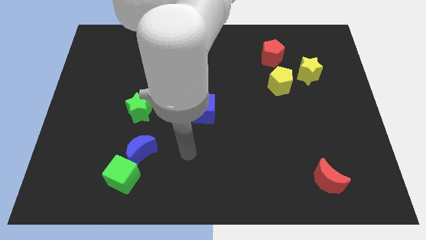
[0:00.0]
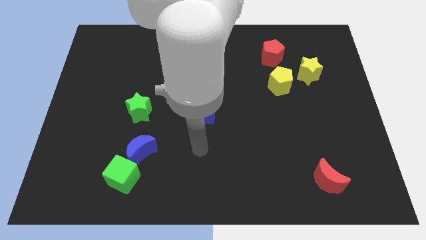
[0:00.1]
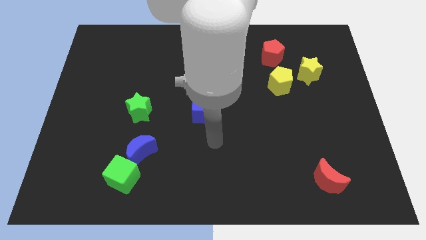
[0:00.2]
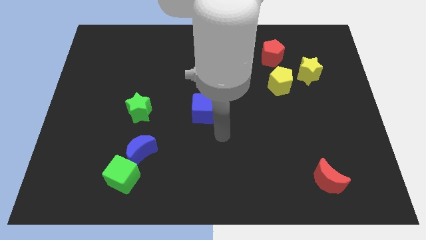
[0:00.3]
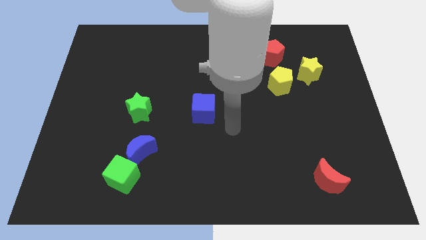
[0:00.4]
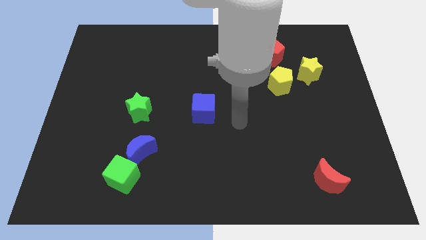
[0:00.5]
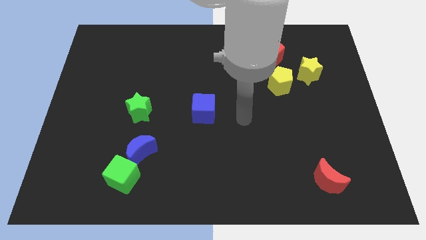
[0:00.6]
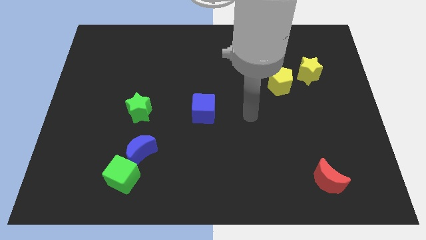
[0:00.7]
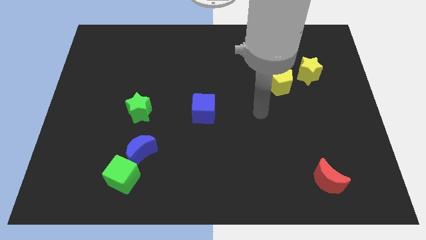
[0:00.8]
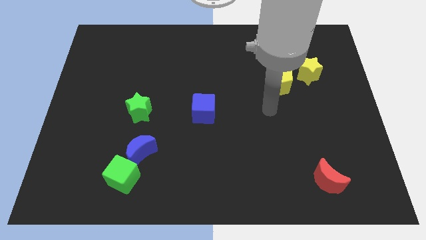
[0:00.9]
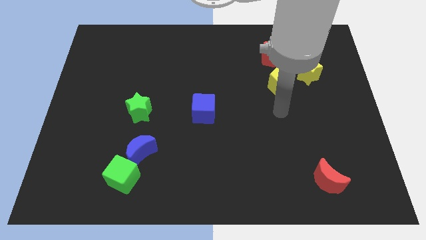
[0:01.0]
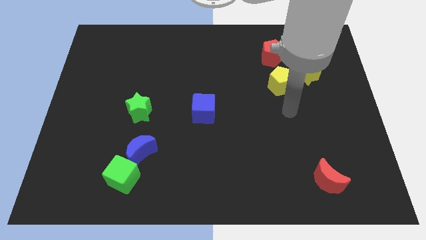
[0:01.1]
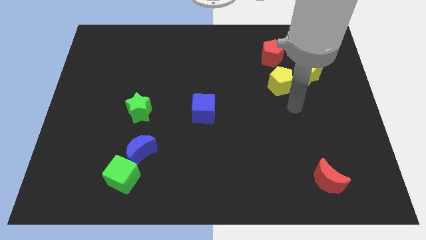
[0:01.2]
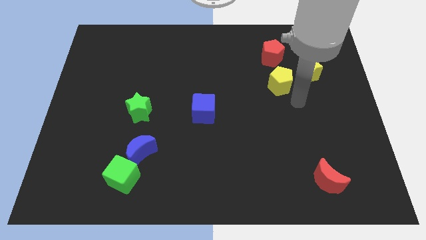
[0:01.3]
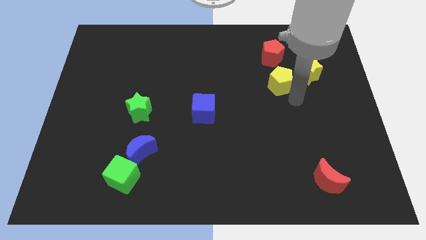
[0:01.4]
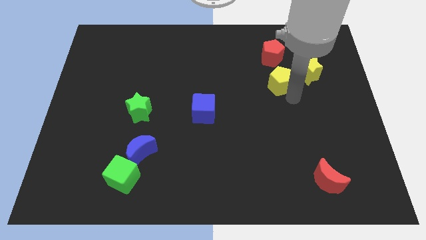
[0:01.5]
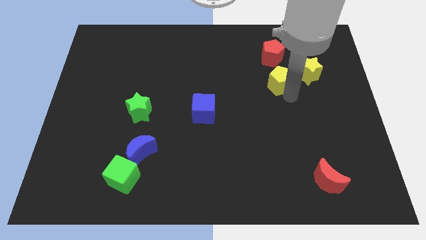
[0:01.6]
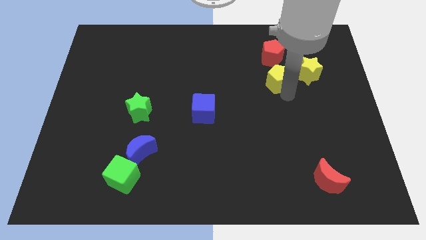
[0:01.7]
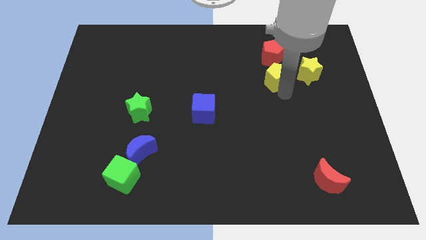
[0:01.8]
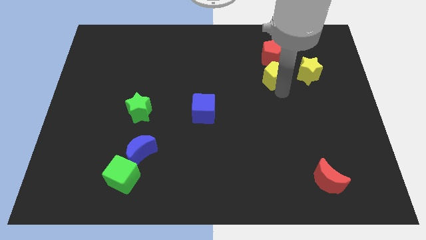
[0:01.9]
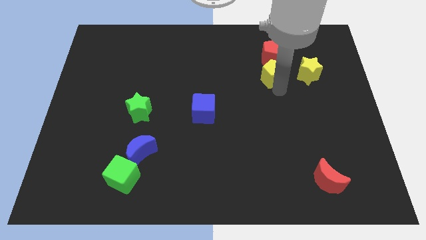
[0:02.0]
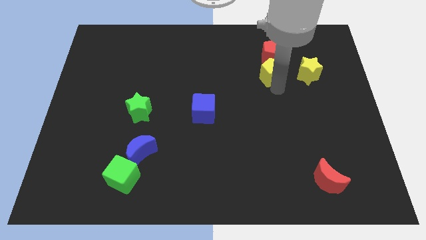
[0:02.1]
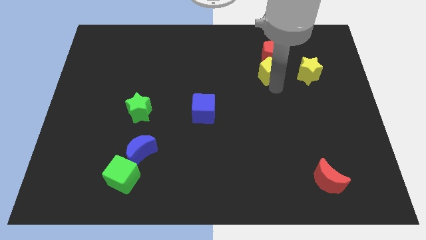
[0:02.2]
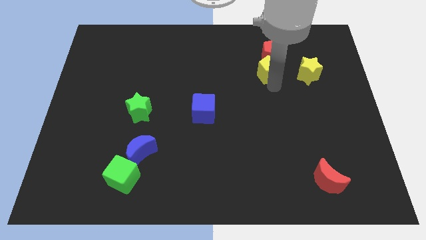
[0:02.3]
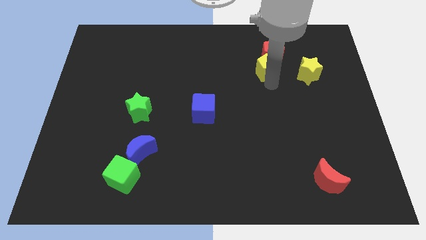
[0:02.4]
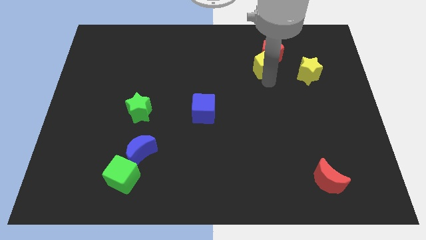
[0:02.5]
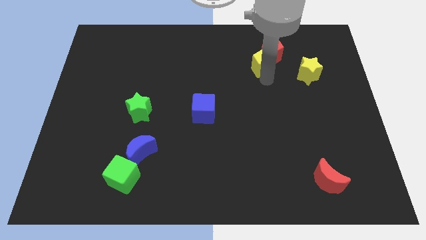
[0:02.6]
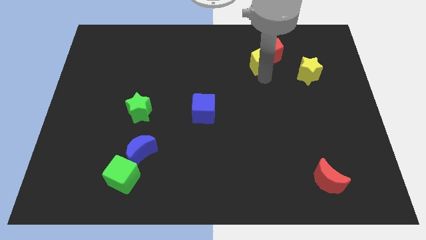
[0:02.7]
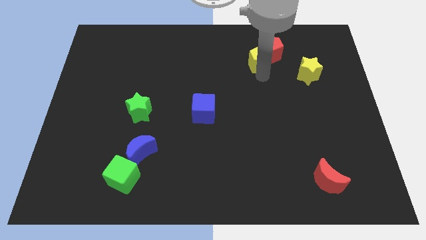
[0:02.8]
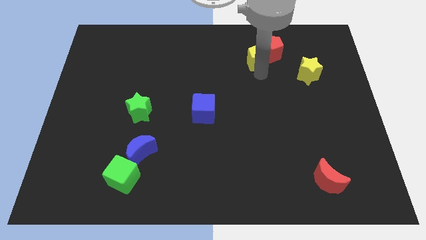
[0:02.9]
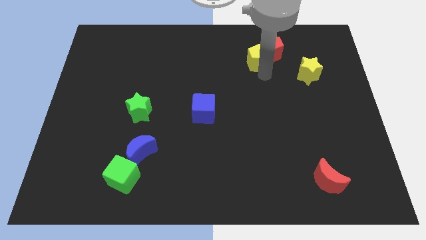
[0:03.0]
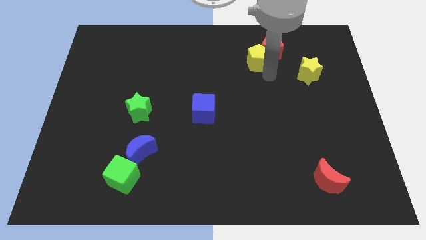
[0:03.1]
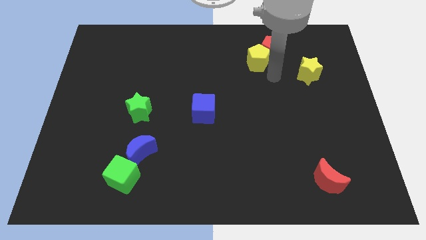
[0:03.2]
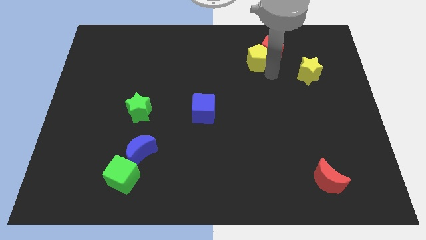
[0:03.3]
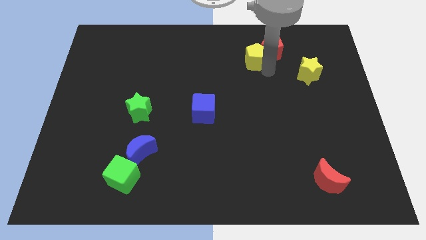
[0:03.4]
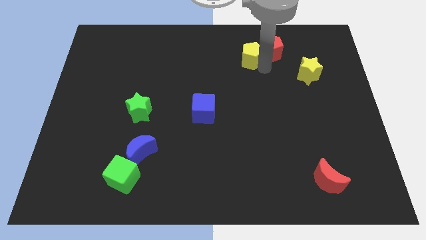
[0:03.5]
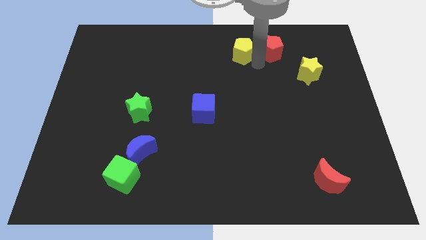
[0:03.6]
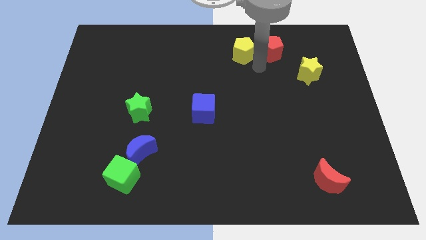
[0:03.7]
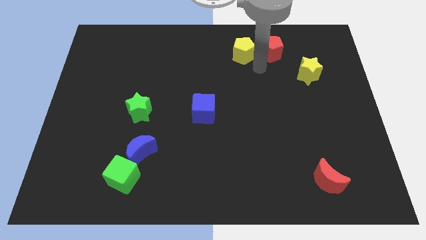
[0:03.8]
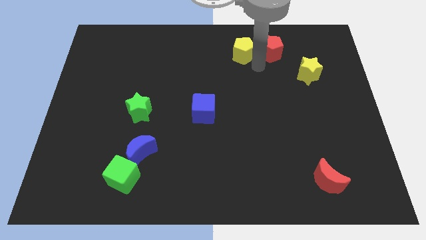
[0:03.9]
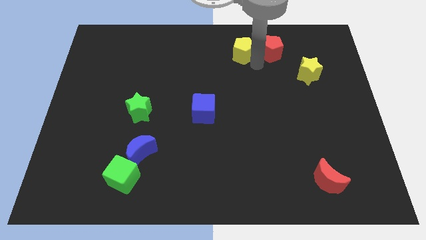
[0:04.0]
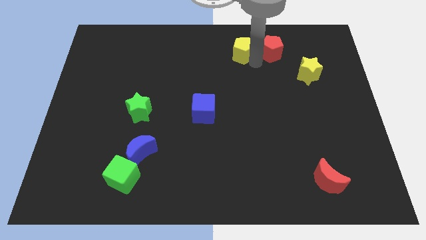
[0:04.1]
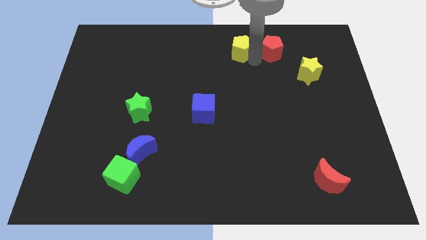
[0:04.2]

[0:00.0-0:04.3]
put the yellow pentagon to the top

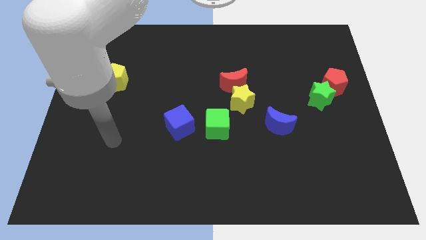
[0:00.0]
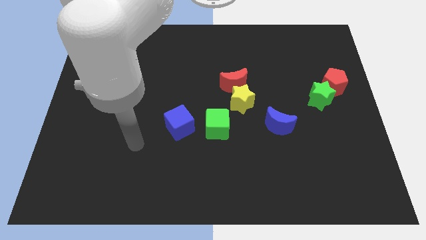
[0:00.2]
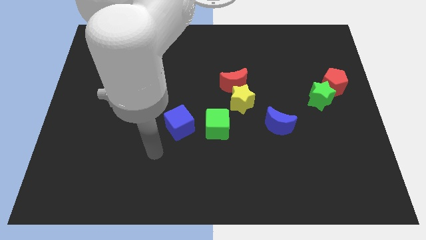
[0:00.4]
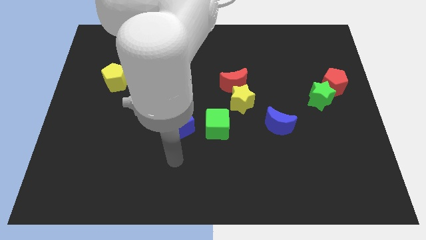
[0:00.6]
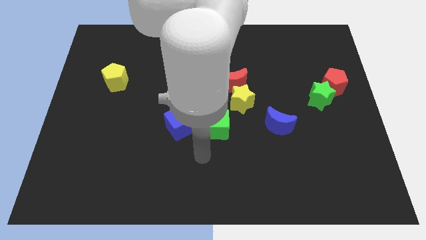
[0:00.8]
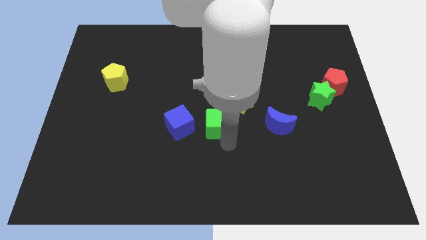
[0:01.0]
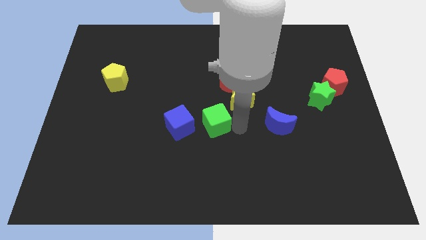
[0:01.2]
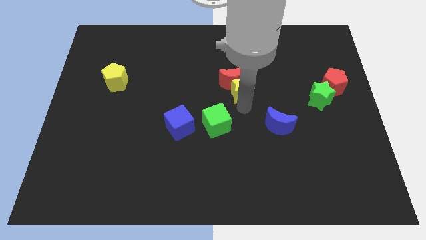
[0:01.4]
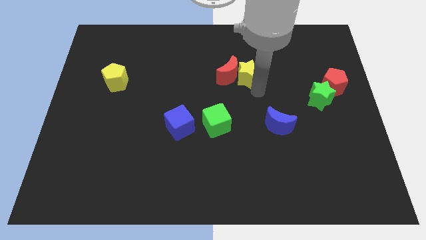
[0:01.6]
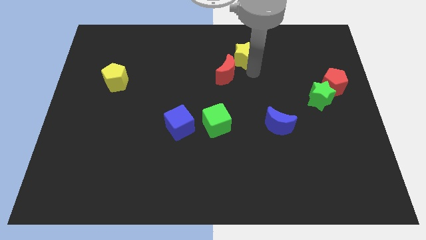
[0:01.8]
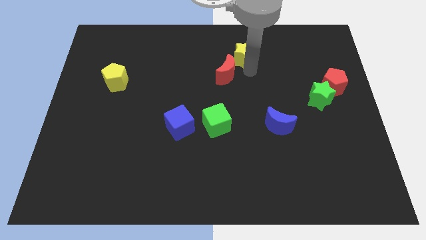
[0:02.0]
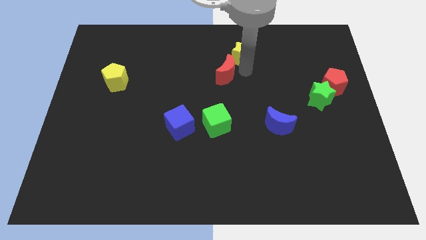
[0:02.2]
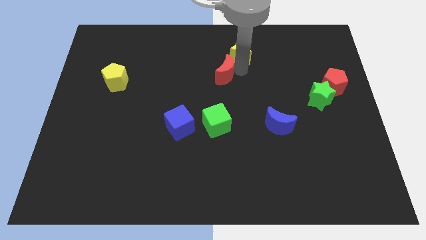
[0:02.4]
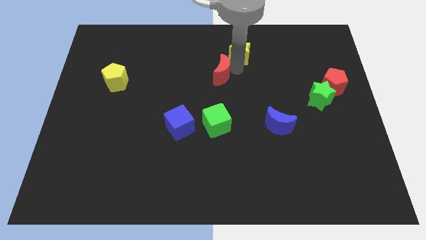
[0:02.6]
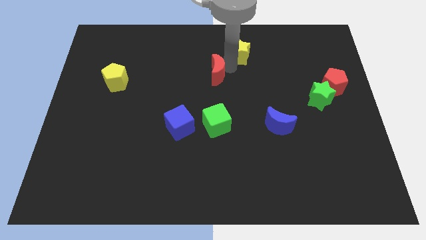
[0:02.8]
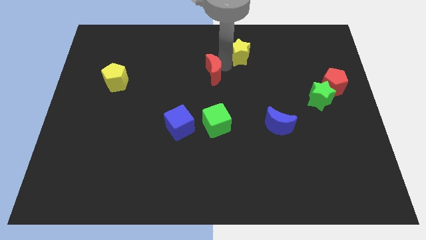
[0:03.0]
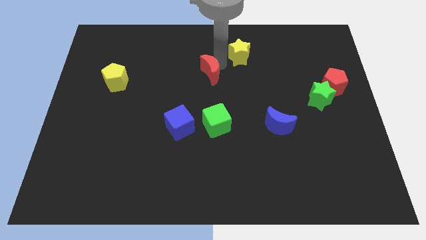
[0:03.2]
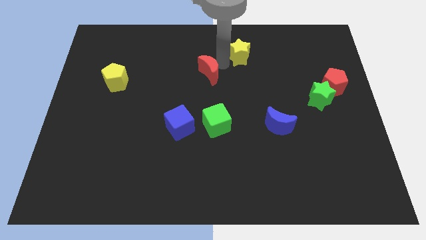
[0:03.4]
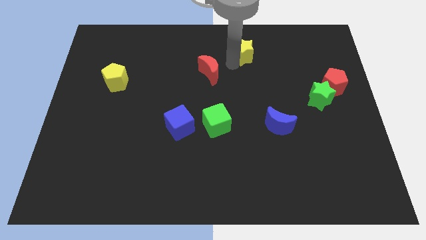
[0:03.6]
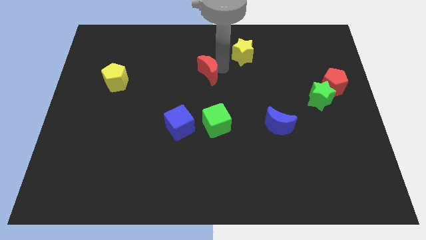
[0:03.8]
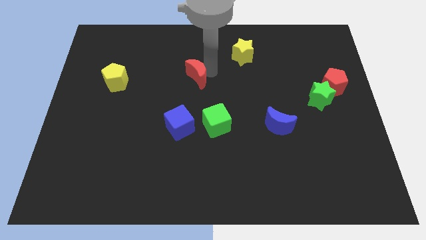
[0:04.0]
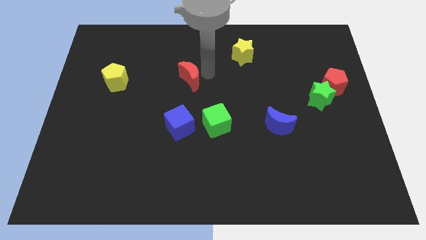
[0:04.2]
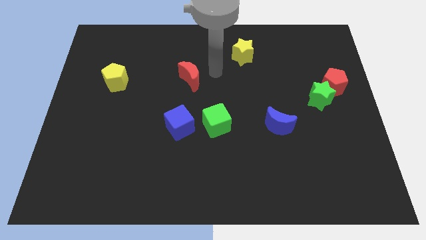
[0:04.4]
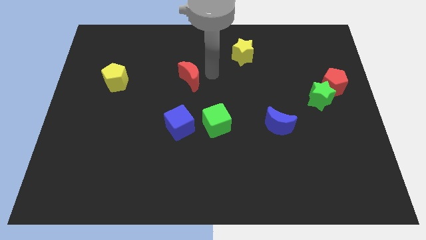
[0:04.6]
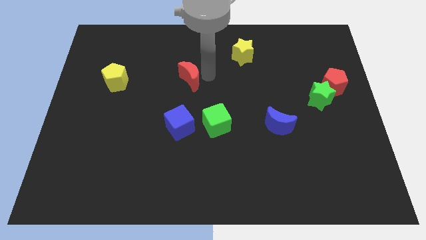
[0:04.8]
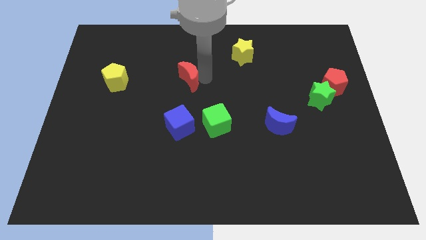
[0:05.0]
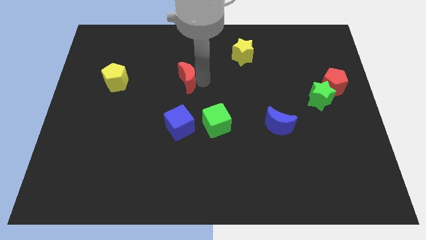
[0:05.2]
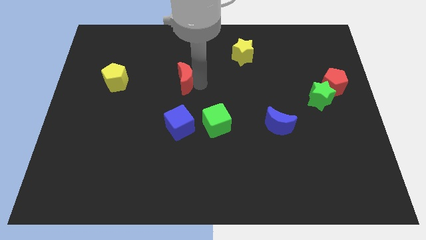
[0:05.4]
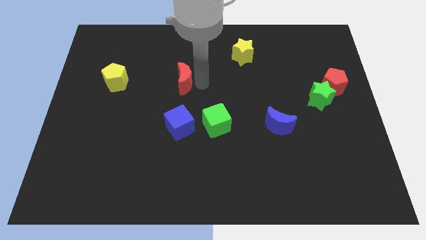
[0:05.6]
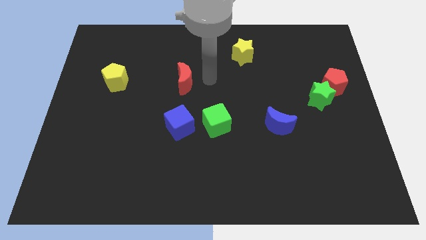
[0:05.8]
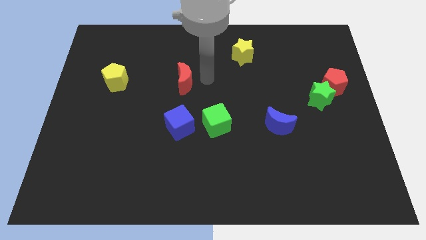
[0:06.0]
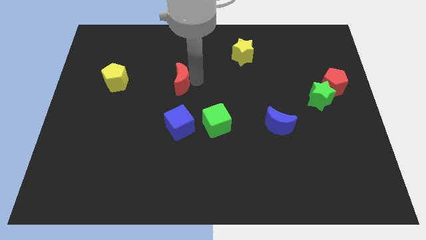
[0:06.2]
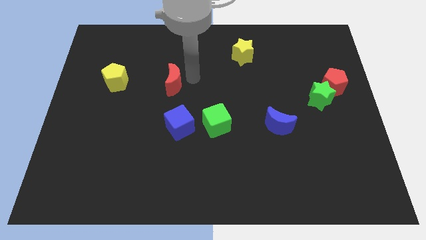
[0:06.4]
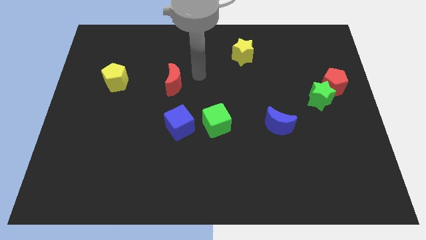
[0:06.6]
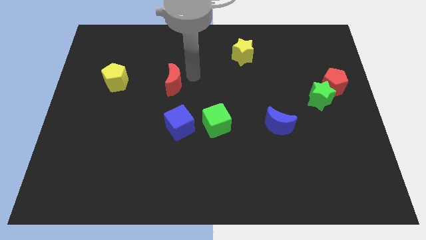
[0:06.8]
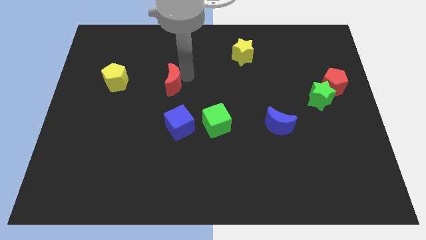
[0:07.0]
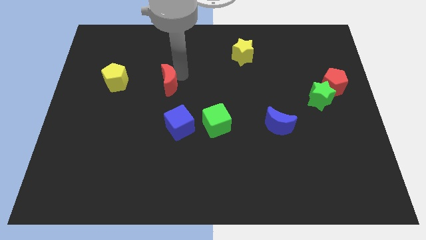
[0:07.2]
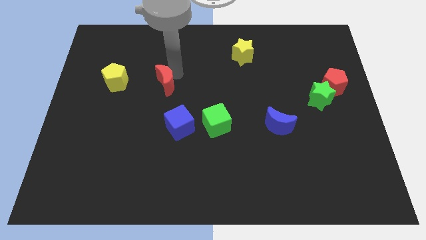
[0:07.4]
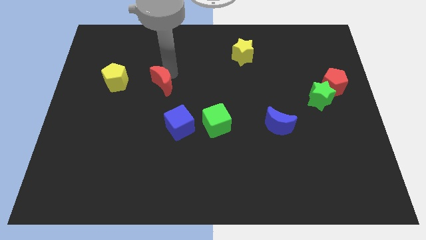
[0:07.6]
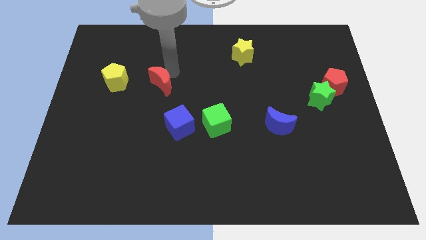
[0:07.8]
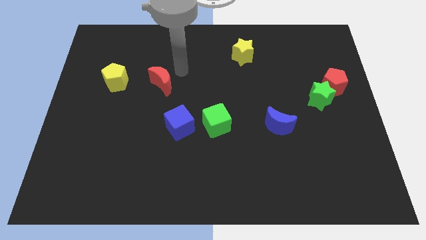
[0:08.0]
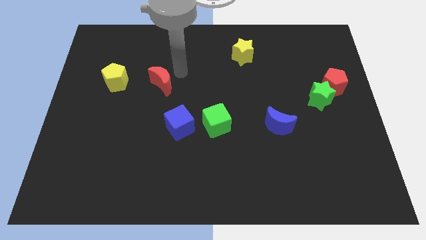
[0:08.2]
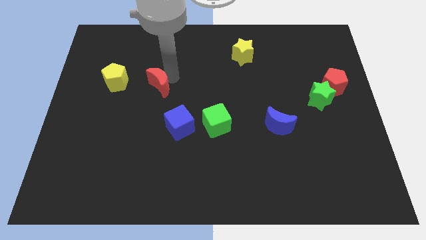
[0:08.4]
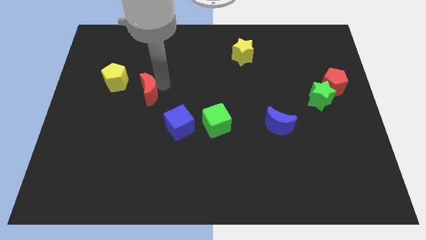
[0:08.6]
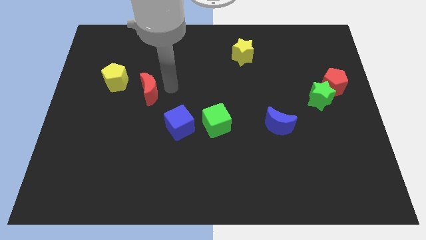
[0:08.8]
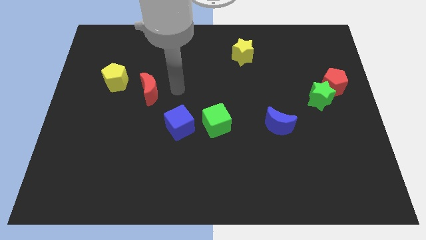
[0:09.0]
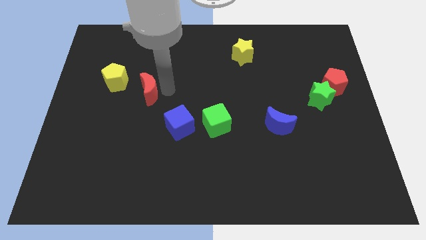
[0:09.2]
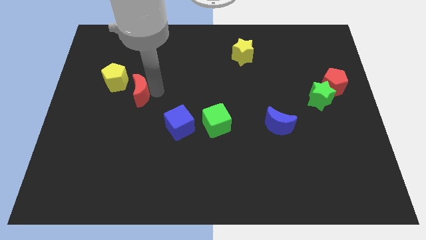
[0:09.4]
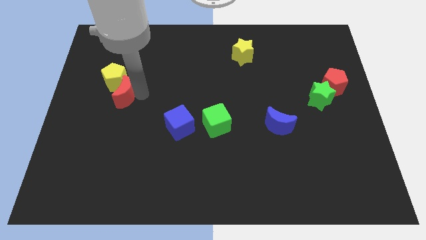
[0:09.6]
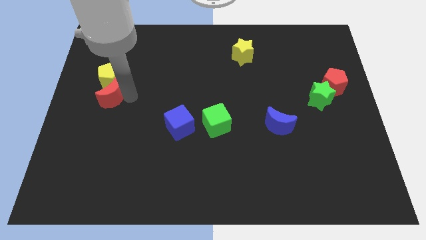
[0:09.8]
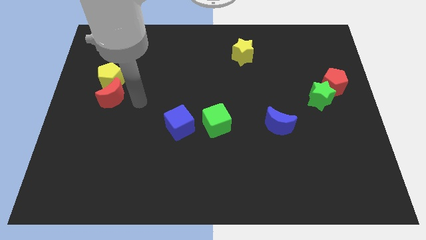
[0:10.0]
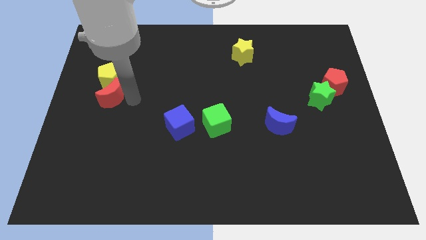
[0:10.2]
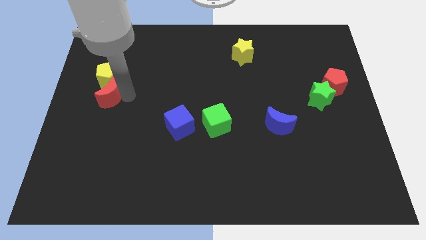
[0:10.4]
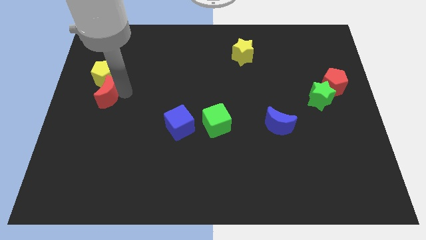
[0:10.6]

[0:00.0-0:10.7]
put the red moon to the left side
